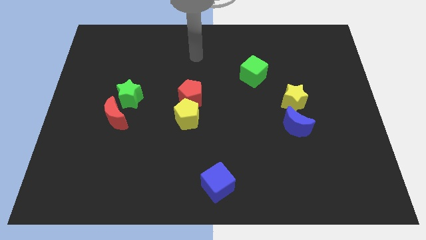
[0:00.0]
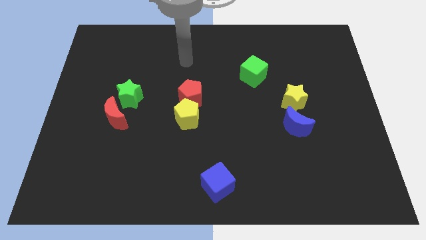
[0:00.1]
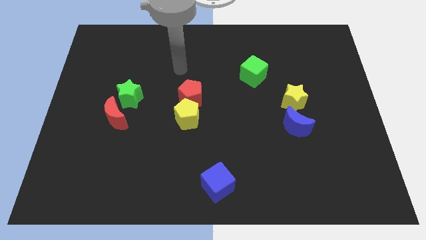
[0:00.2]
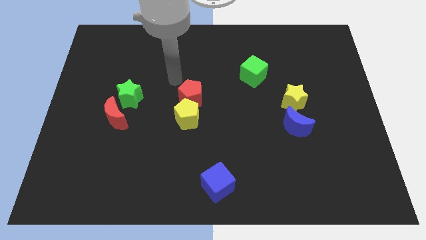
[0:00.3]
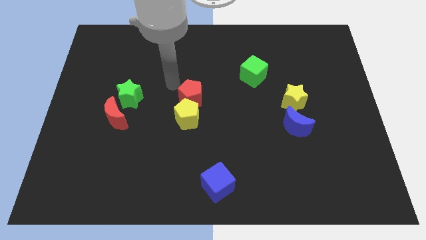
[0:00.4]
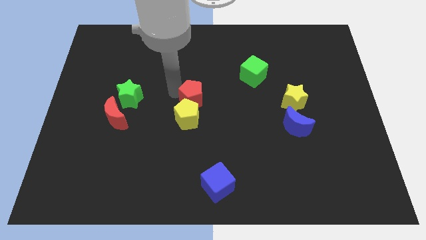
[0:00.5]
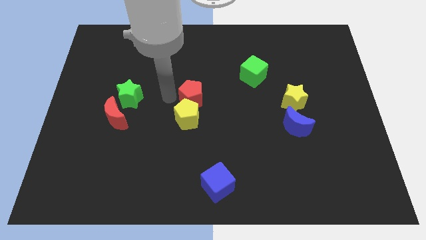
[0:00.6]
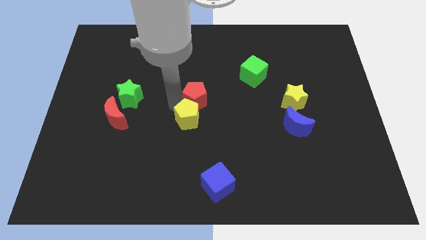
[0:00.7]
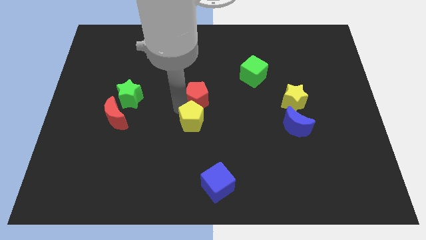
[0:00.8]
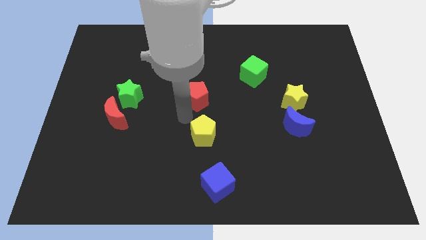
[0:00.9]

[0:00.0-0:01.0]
pull the red pentagon apart from the yellow pentagon

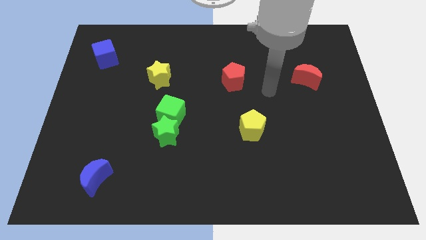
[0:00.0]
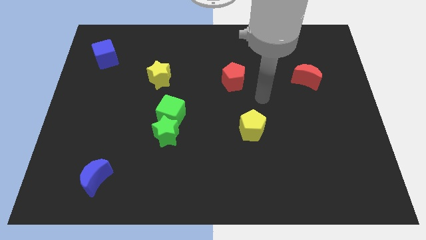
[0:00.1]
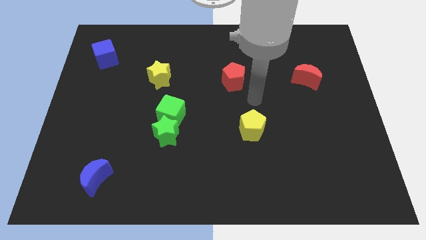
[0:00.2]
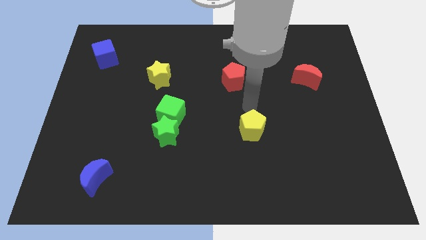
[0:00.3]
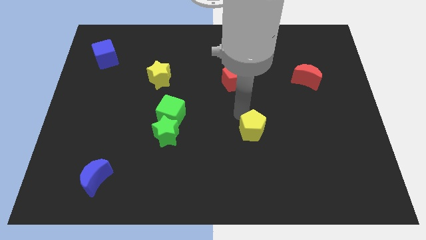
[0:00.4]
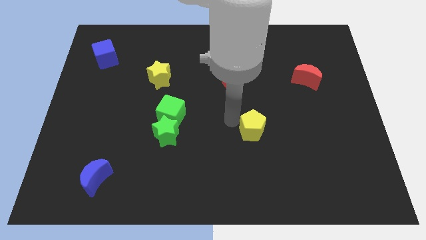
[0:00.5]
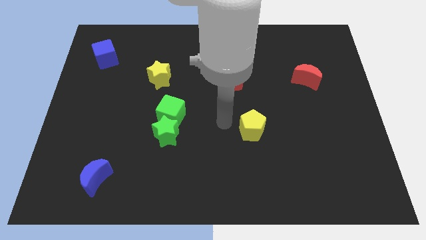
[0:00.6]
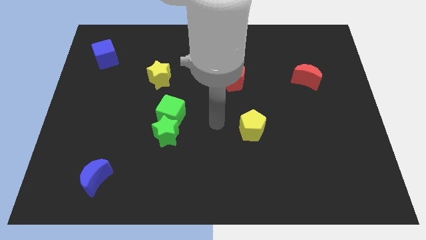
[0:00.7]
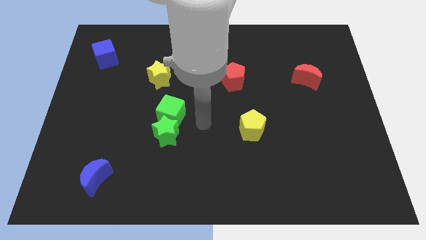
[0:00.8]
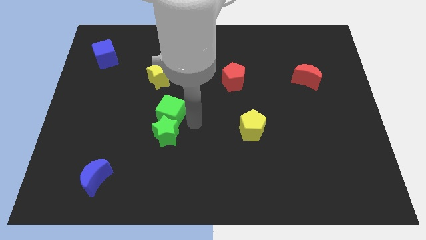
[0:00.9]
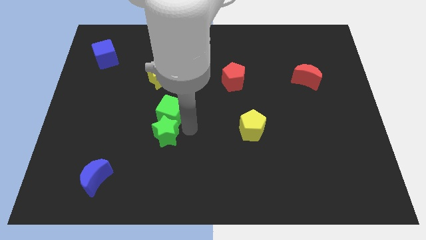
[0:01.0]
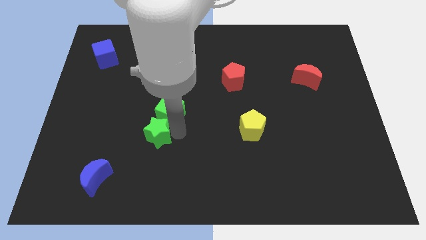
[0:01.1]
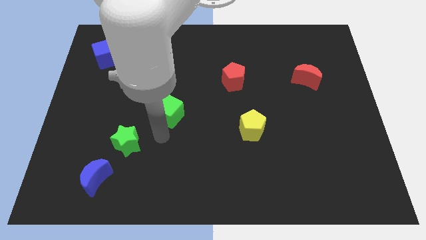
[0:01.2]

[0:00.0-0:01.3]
move the green cube away from the green star

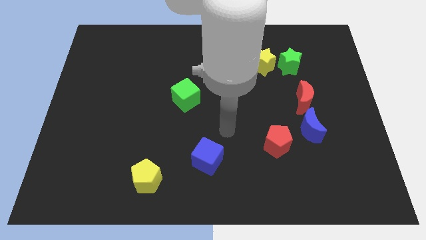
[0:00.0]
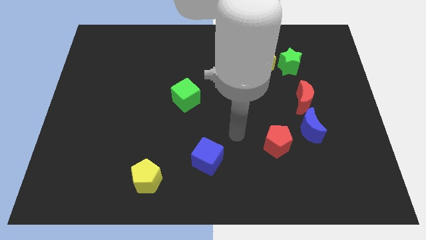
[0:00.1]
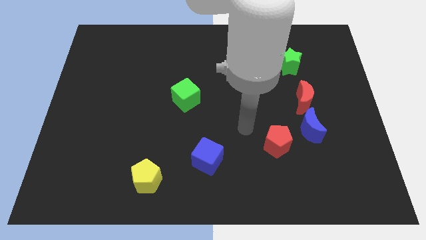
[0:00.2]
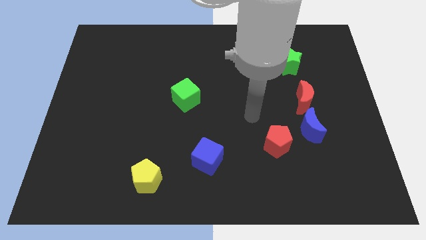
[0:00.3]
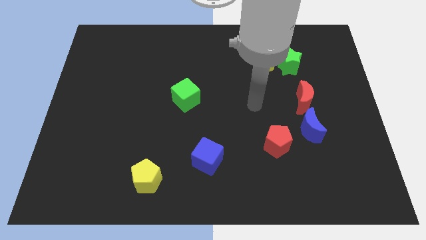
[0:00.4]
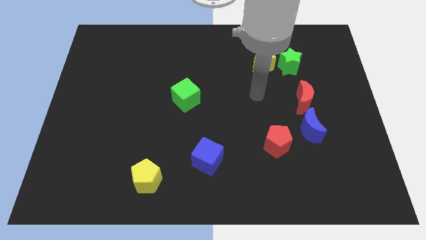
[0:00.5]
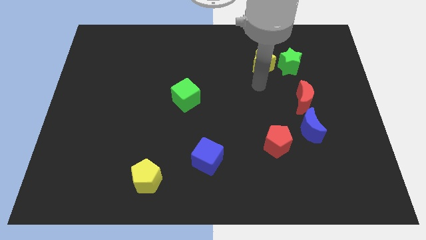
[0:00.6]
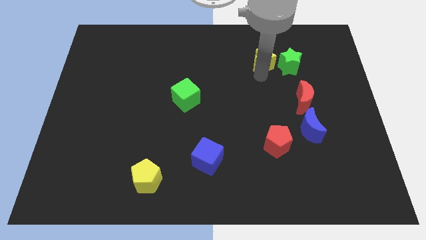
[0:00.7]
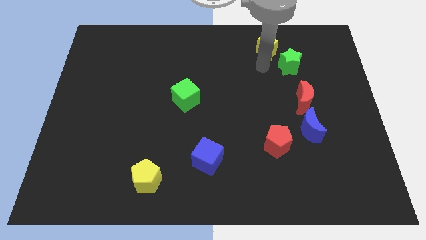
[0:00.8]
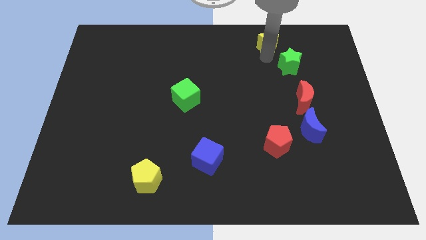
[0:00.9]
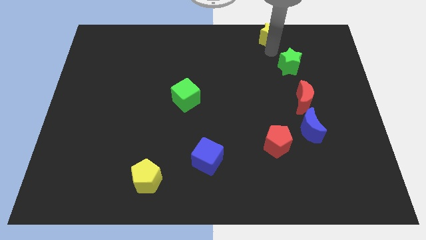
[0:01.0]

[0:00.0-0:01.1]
pull the green star apart from the yellow star

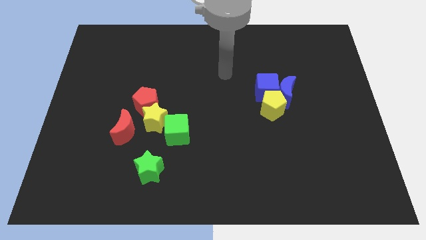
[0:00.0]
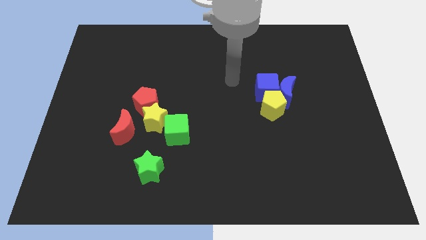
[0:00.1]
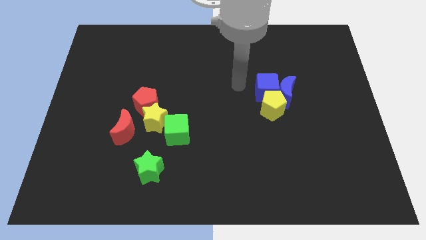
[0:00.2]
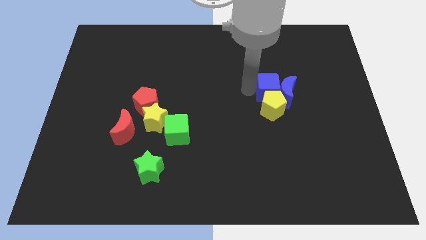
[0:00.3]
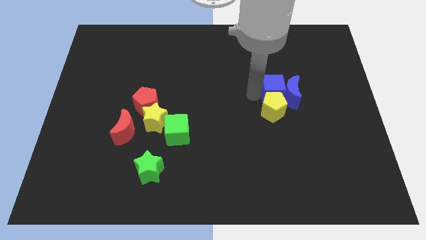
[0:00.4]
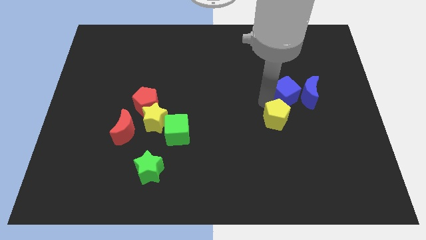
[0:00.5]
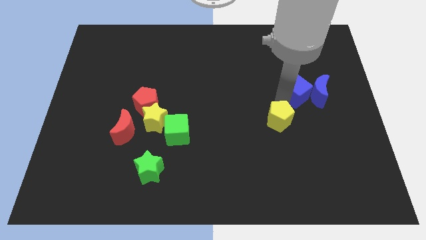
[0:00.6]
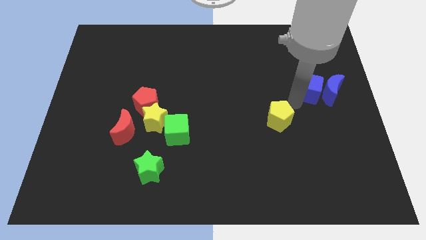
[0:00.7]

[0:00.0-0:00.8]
move the blue moon away from the blue cube and yellow pentagon

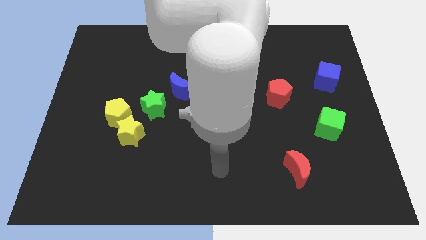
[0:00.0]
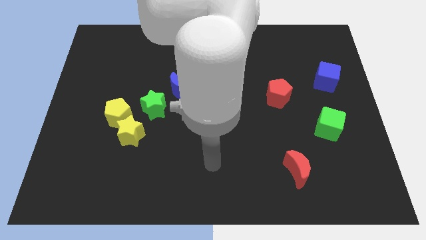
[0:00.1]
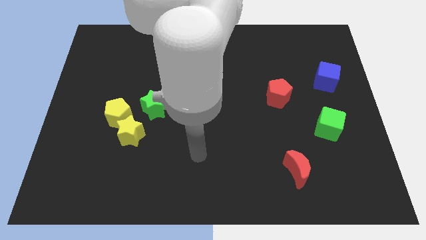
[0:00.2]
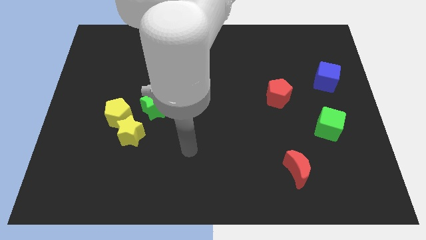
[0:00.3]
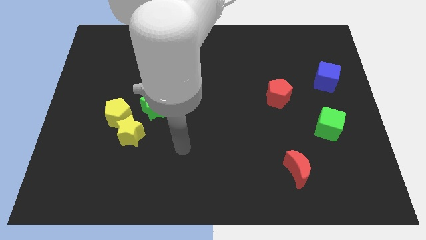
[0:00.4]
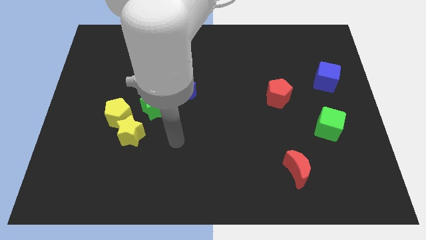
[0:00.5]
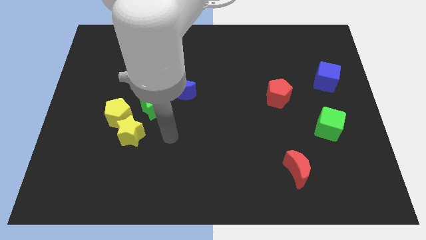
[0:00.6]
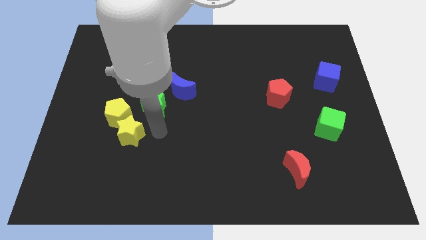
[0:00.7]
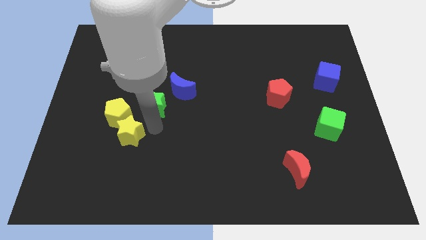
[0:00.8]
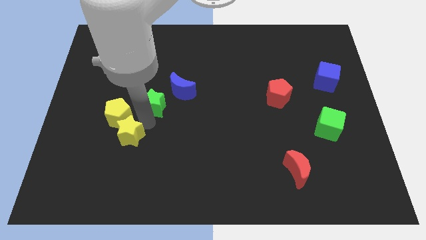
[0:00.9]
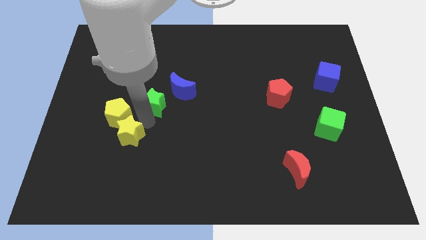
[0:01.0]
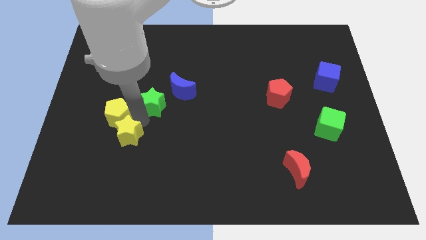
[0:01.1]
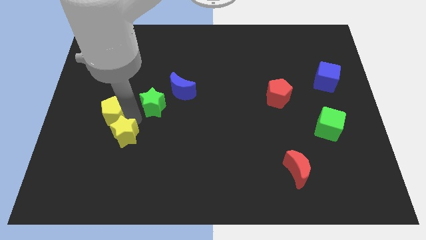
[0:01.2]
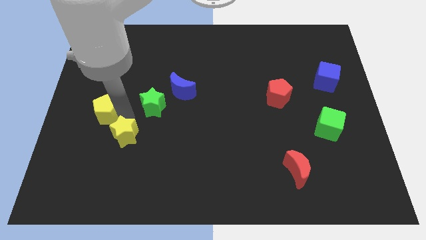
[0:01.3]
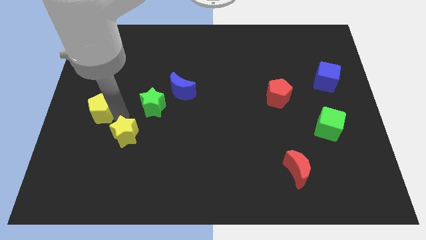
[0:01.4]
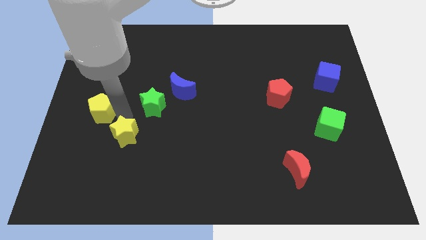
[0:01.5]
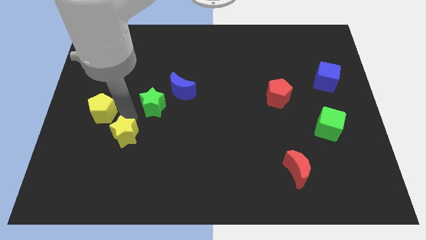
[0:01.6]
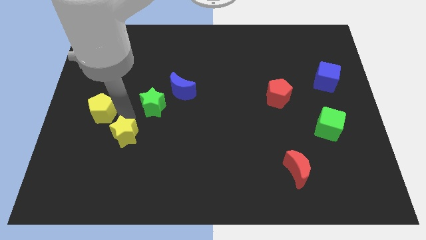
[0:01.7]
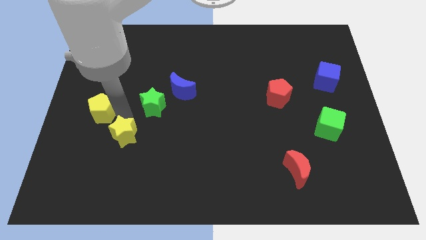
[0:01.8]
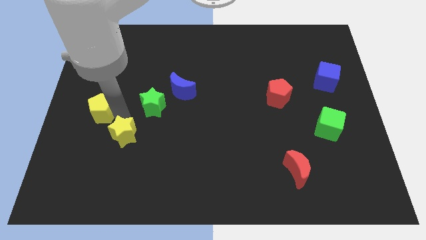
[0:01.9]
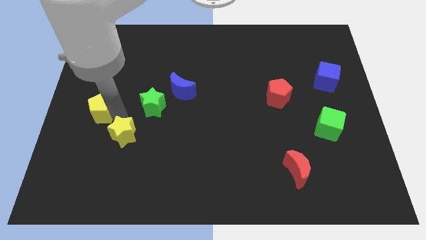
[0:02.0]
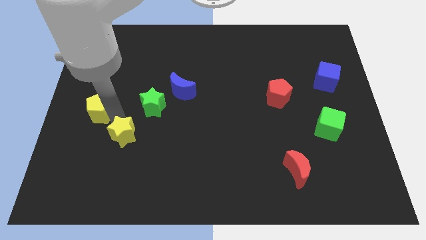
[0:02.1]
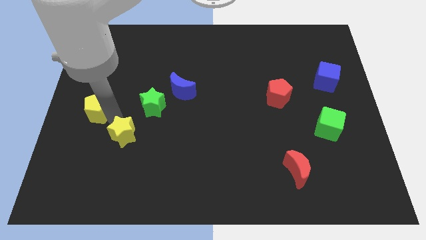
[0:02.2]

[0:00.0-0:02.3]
move the yellow pentagon away from the yellow star and green star

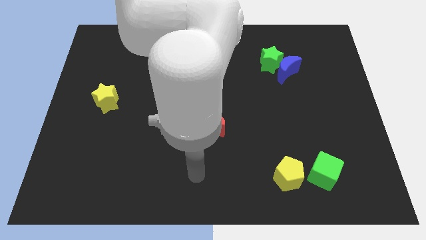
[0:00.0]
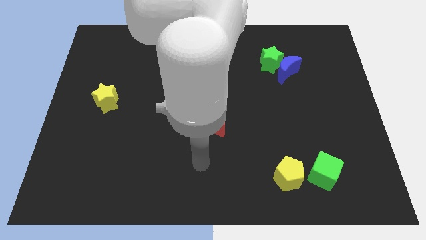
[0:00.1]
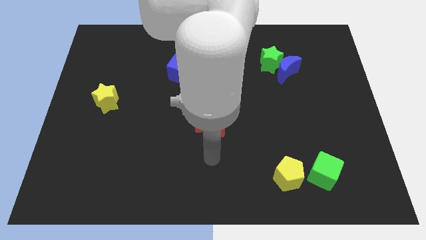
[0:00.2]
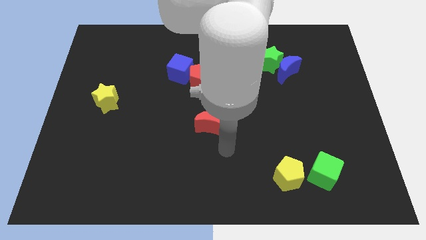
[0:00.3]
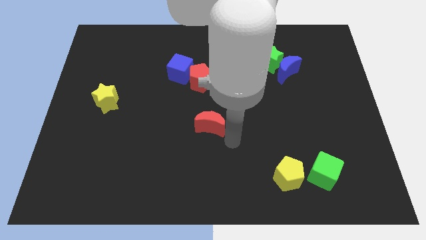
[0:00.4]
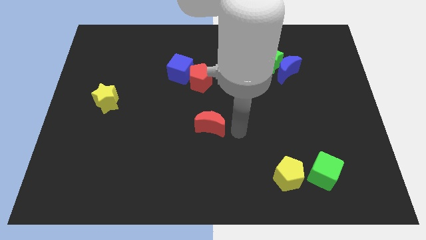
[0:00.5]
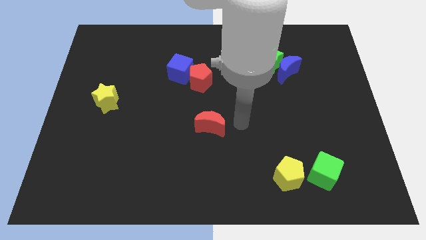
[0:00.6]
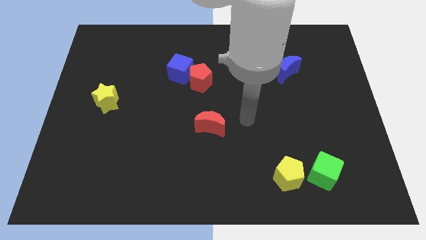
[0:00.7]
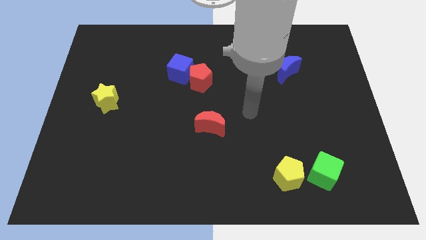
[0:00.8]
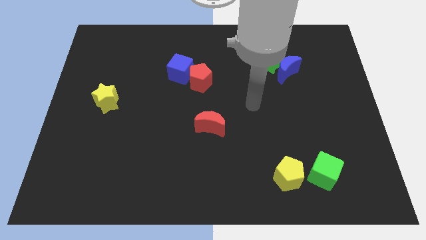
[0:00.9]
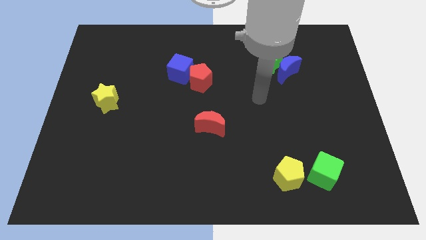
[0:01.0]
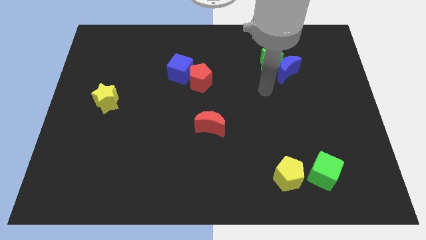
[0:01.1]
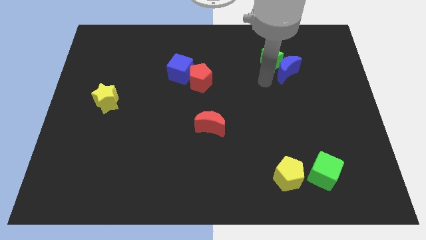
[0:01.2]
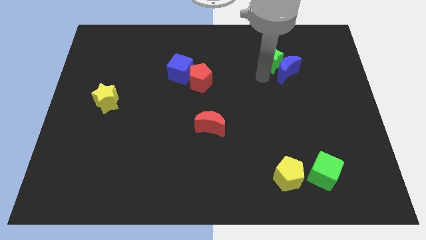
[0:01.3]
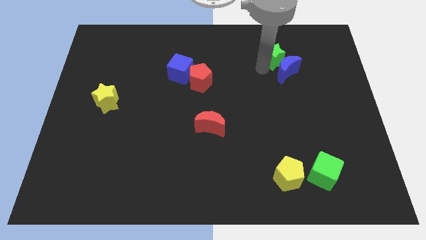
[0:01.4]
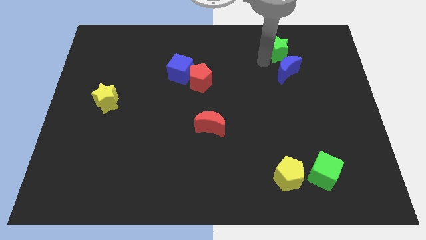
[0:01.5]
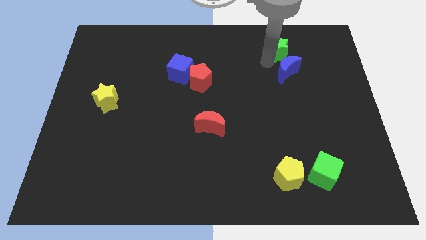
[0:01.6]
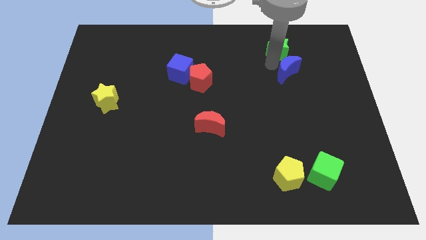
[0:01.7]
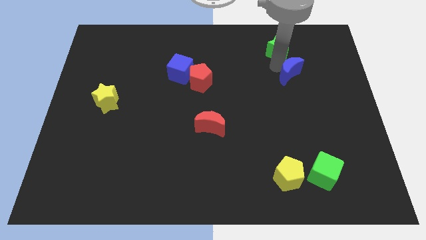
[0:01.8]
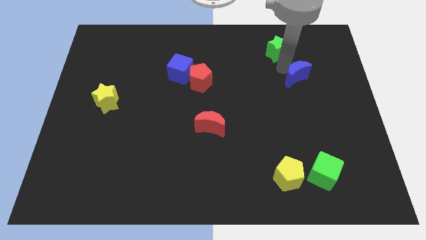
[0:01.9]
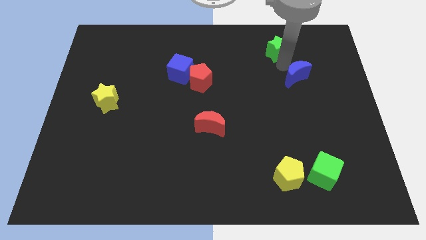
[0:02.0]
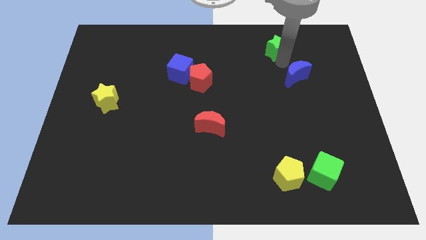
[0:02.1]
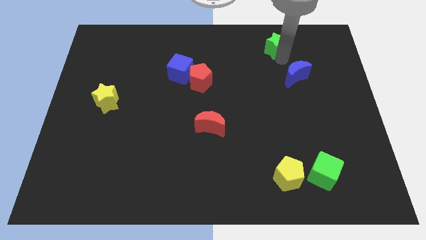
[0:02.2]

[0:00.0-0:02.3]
separate the blue moon from the green star
